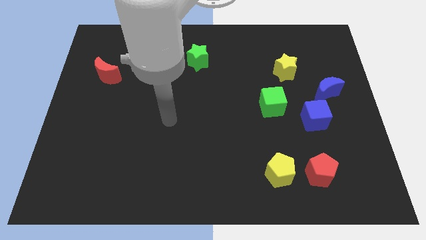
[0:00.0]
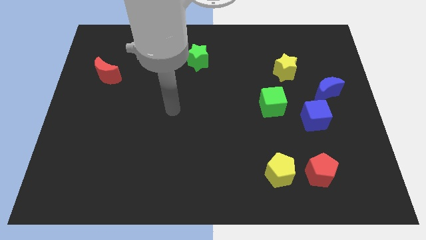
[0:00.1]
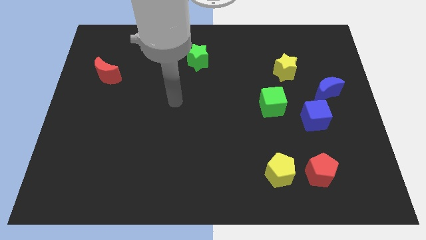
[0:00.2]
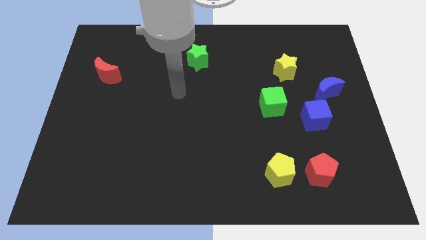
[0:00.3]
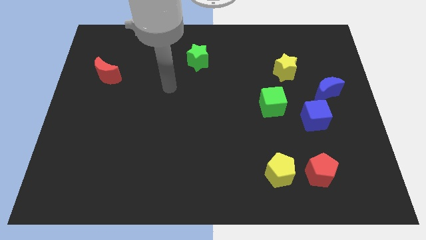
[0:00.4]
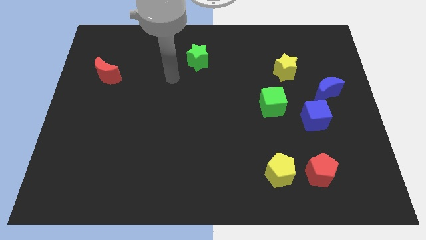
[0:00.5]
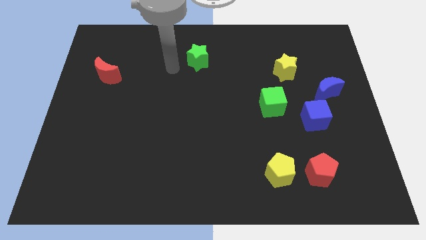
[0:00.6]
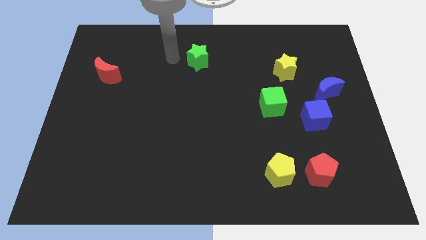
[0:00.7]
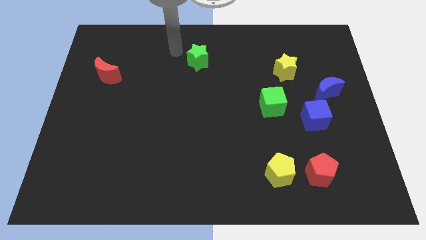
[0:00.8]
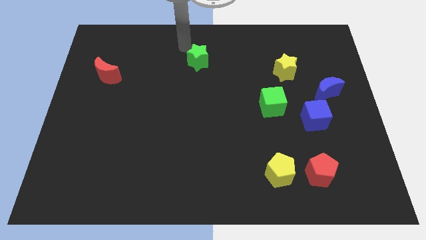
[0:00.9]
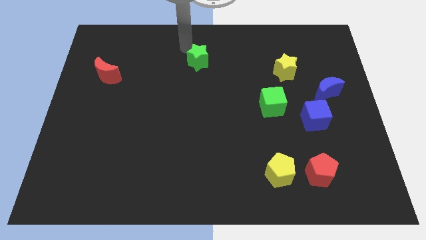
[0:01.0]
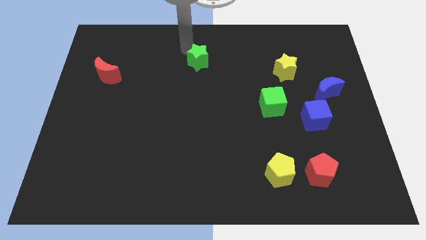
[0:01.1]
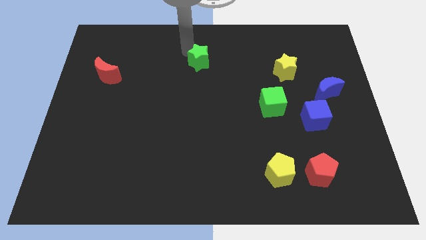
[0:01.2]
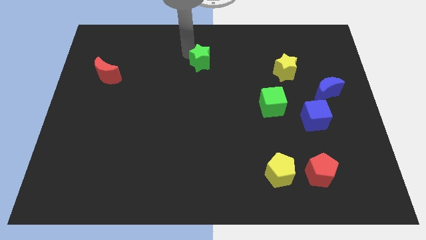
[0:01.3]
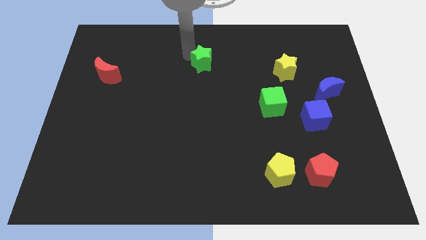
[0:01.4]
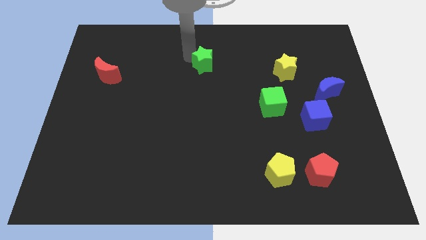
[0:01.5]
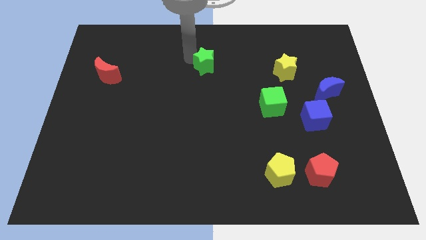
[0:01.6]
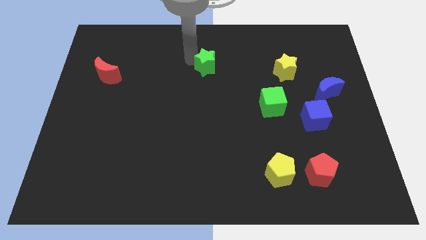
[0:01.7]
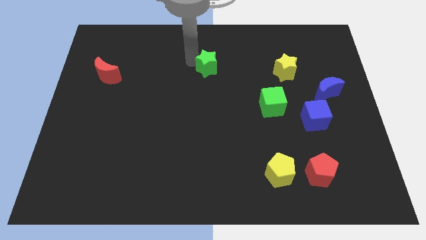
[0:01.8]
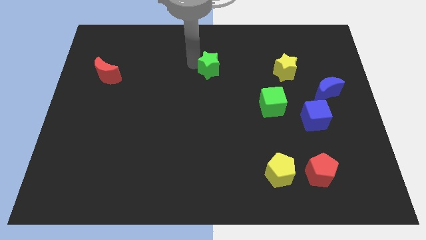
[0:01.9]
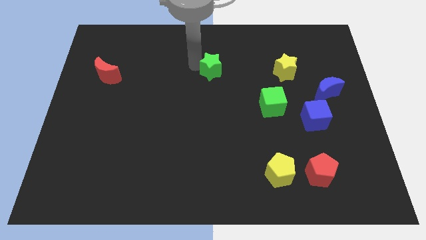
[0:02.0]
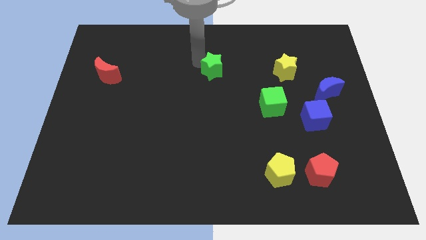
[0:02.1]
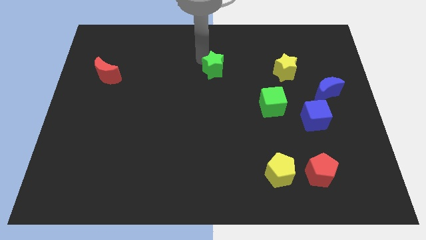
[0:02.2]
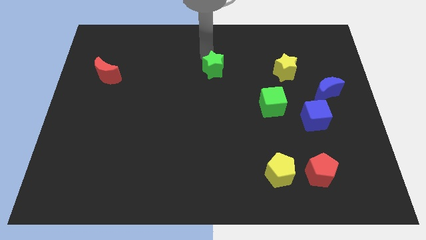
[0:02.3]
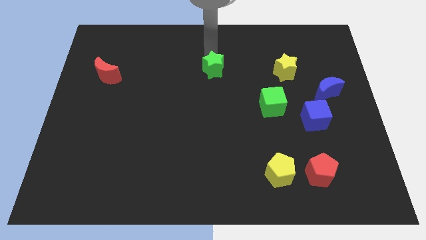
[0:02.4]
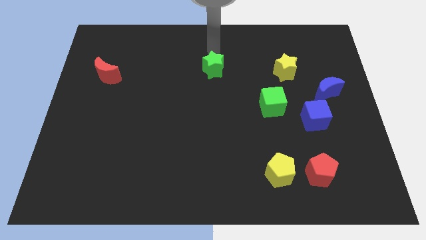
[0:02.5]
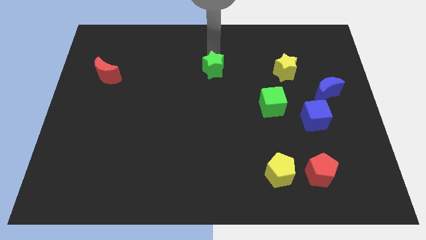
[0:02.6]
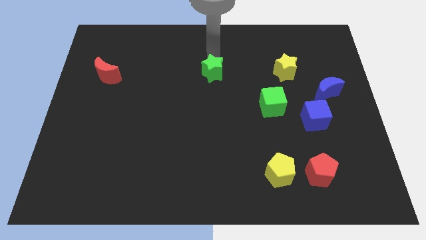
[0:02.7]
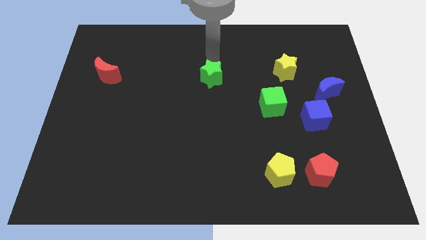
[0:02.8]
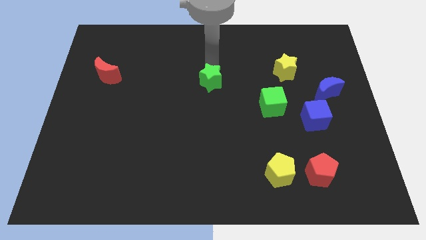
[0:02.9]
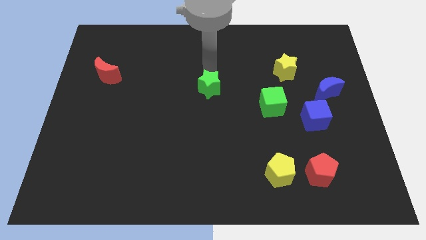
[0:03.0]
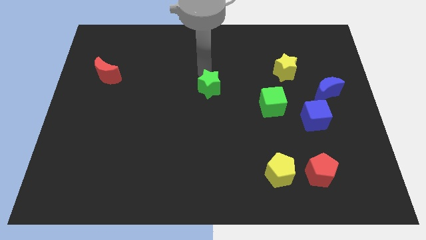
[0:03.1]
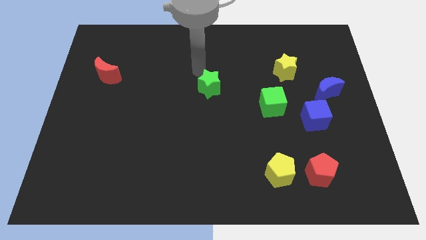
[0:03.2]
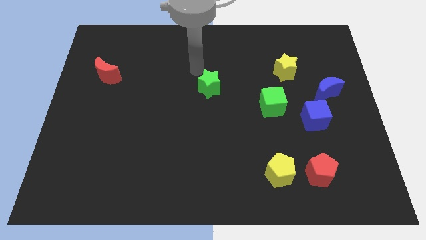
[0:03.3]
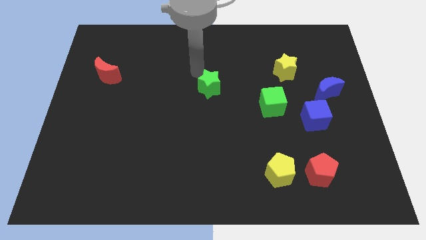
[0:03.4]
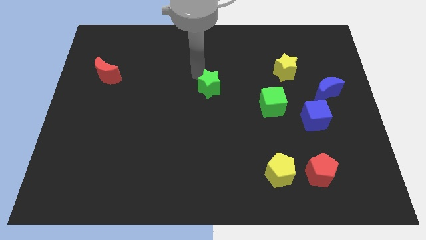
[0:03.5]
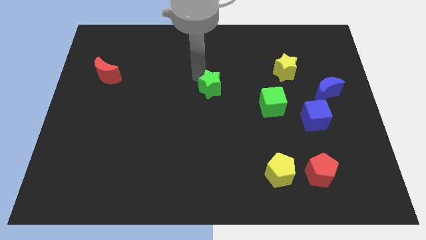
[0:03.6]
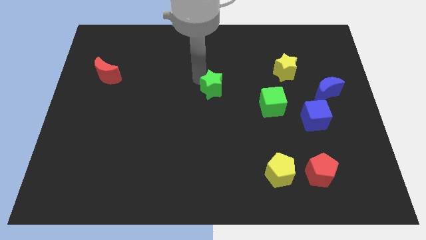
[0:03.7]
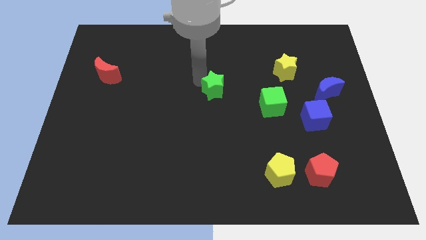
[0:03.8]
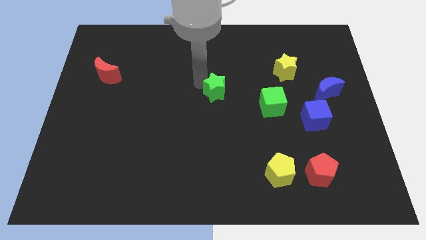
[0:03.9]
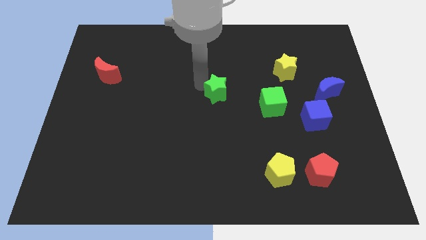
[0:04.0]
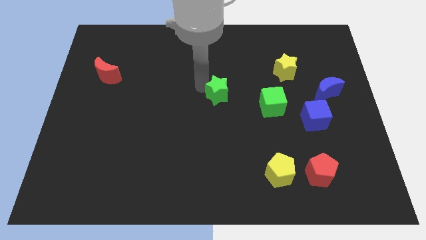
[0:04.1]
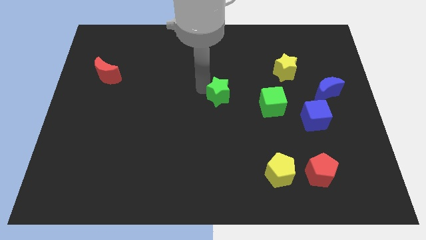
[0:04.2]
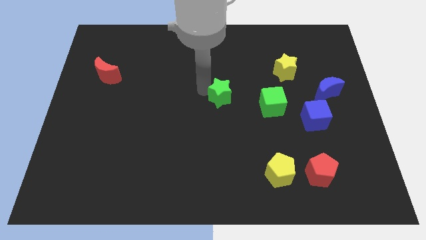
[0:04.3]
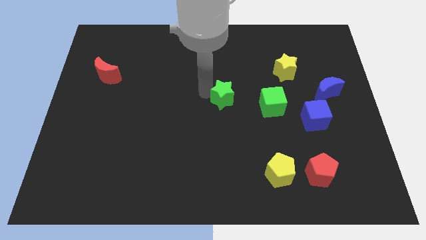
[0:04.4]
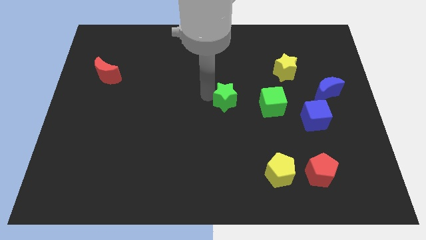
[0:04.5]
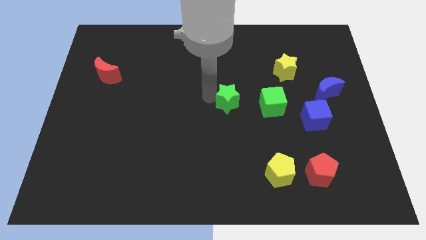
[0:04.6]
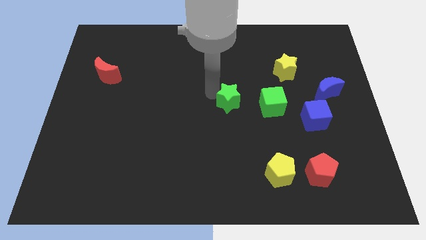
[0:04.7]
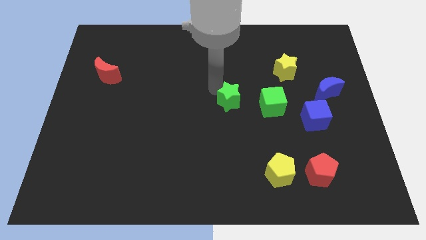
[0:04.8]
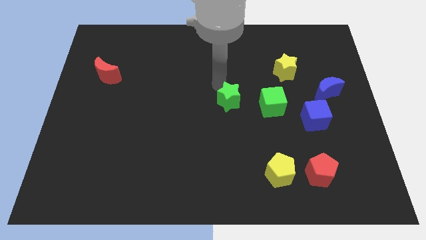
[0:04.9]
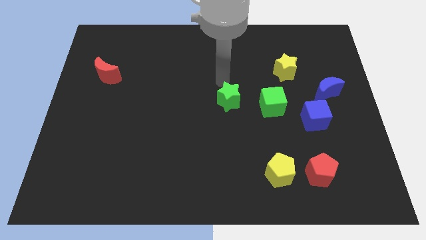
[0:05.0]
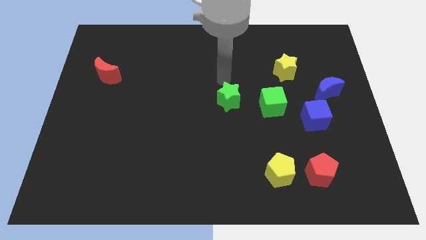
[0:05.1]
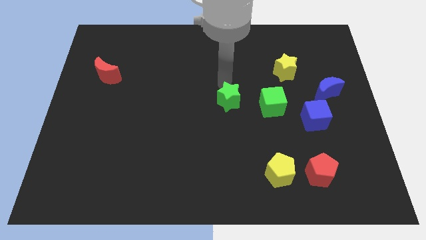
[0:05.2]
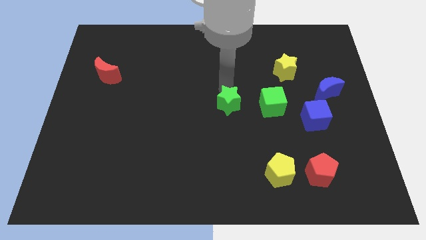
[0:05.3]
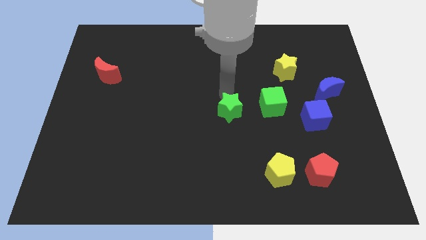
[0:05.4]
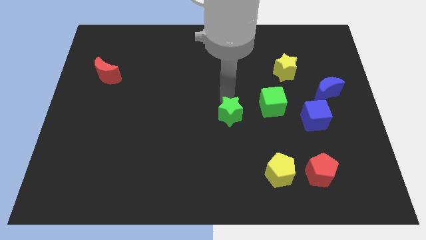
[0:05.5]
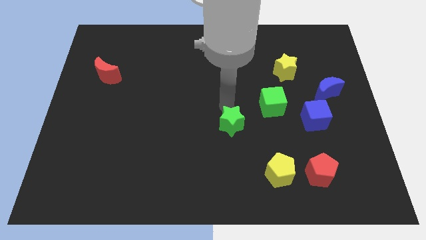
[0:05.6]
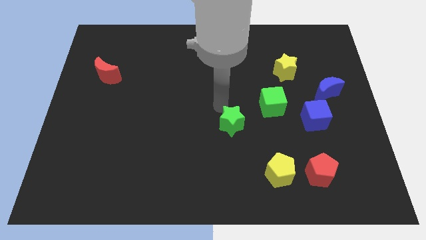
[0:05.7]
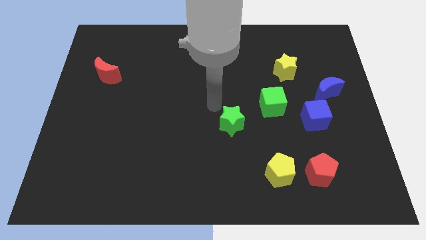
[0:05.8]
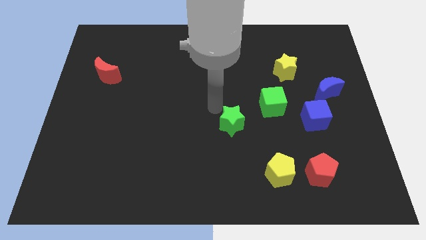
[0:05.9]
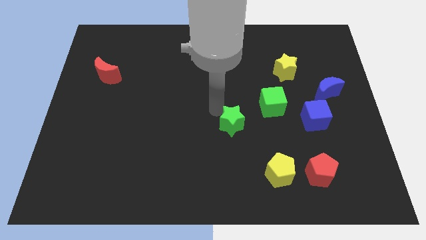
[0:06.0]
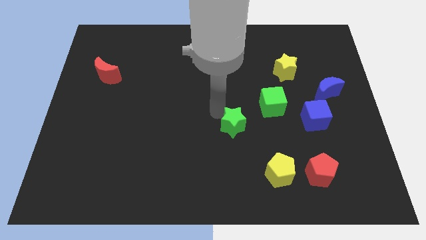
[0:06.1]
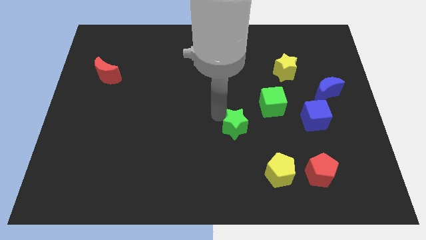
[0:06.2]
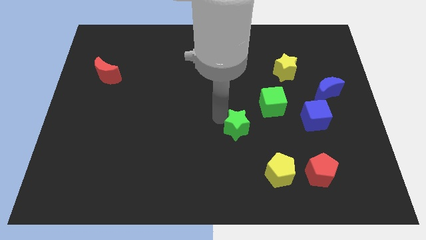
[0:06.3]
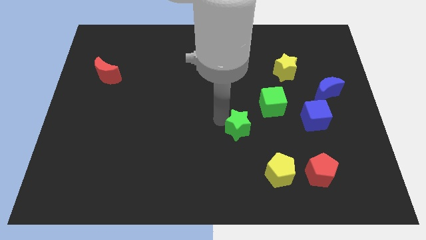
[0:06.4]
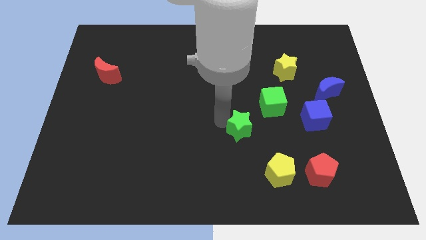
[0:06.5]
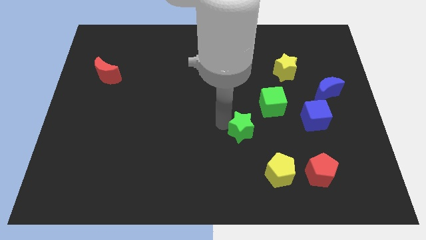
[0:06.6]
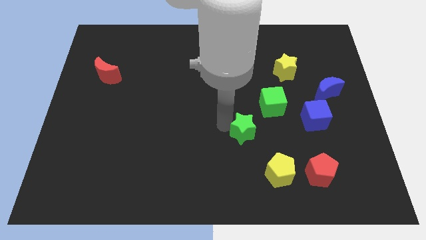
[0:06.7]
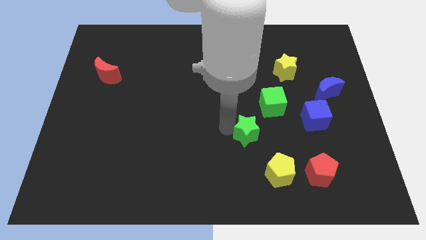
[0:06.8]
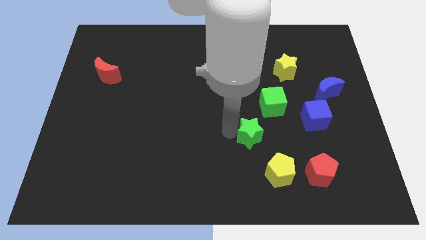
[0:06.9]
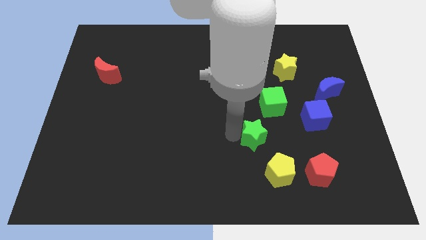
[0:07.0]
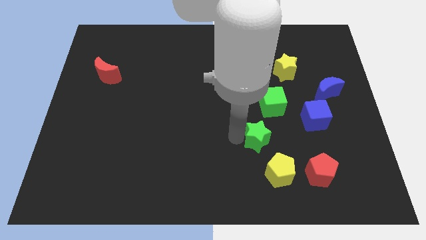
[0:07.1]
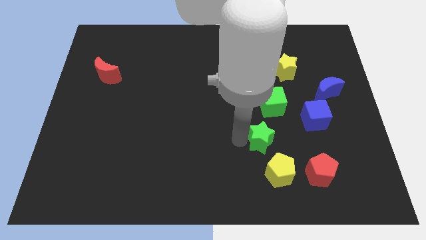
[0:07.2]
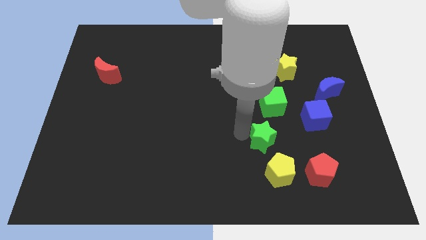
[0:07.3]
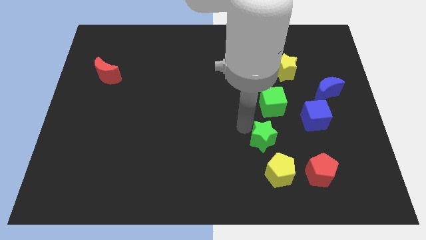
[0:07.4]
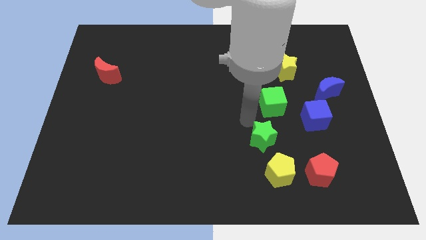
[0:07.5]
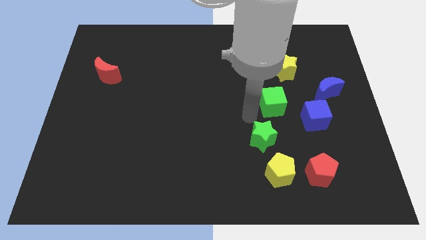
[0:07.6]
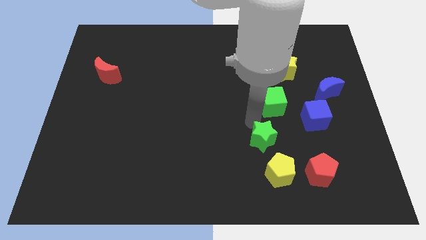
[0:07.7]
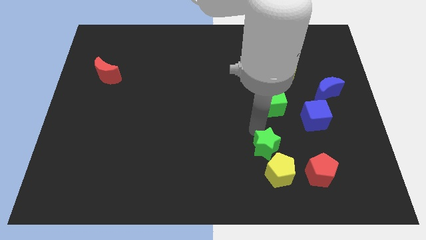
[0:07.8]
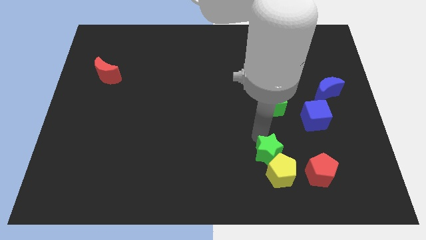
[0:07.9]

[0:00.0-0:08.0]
slide the green star to the yellow pentagon
